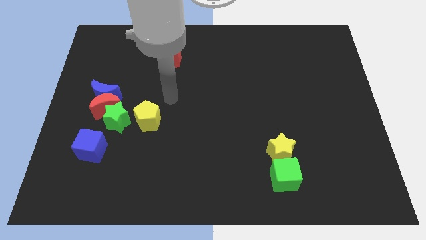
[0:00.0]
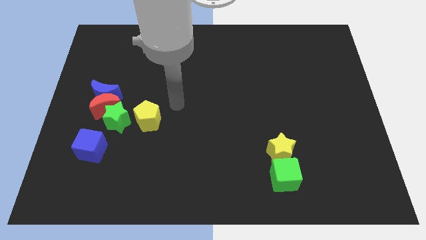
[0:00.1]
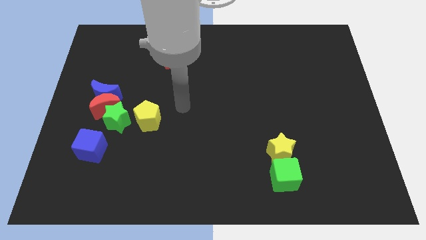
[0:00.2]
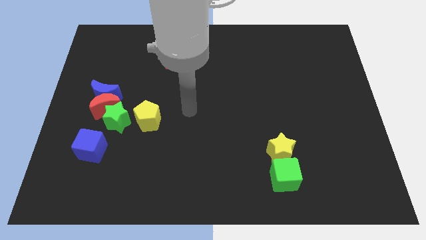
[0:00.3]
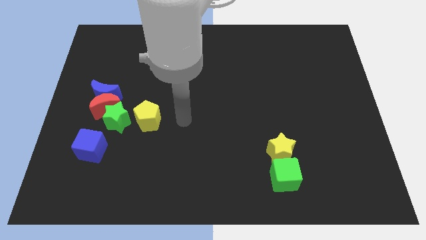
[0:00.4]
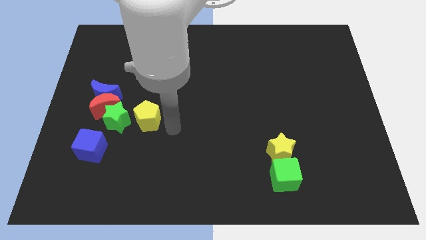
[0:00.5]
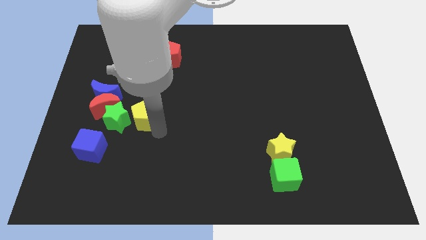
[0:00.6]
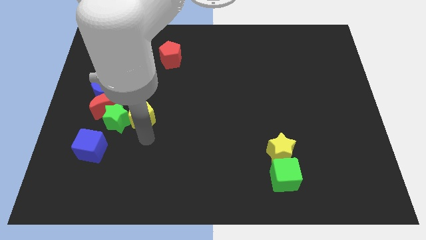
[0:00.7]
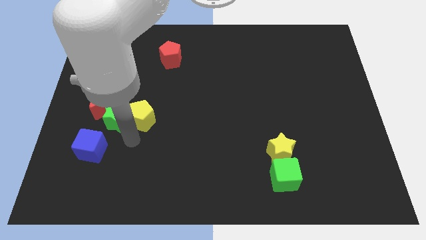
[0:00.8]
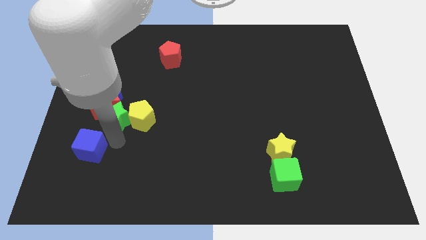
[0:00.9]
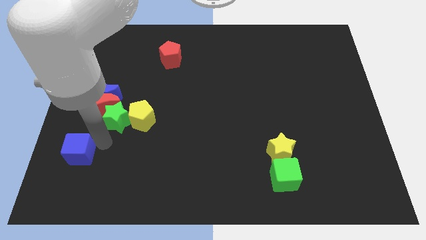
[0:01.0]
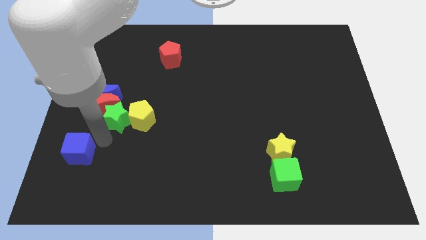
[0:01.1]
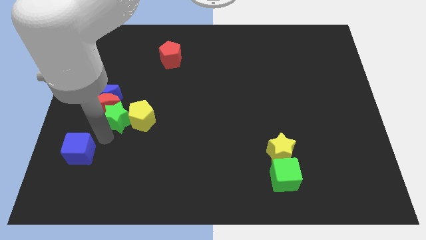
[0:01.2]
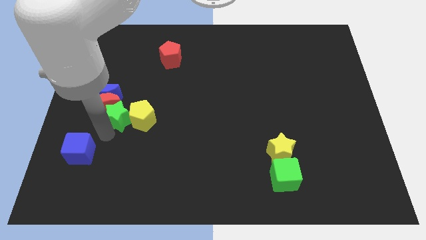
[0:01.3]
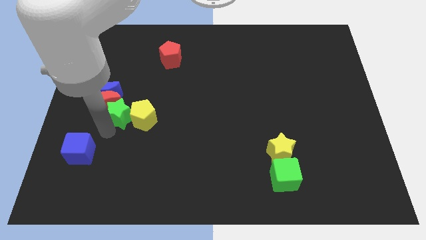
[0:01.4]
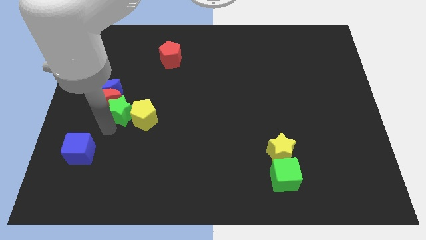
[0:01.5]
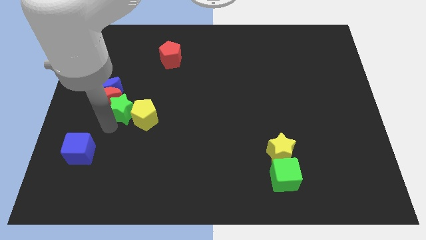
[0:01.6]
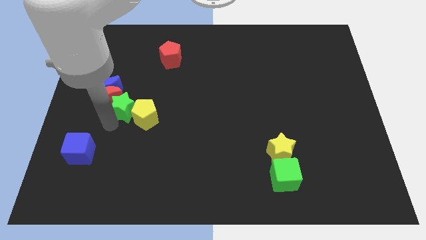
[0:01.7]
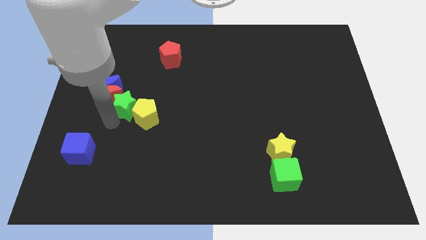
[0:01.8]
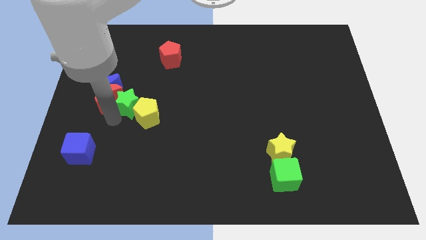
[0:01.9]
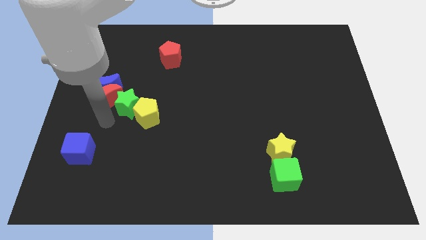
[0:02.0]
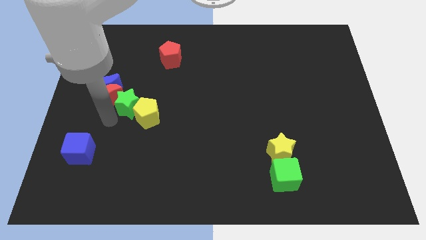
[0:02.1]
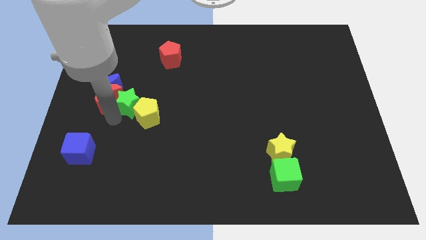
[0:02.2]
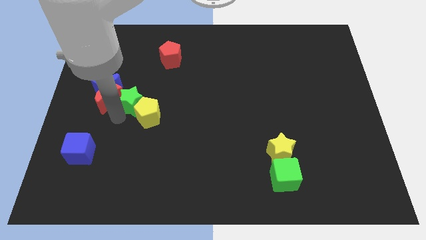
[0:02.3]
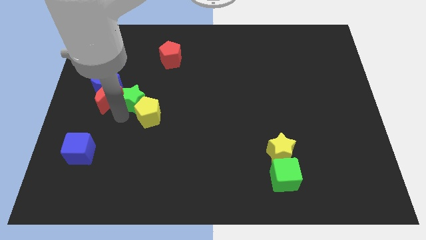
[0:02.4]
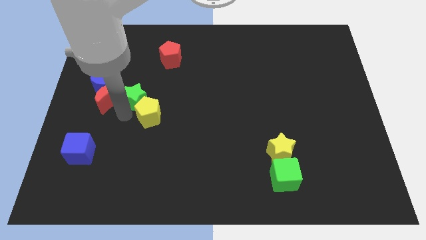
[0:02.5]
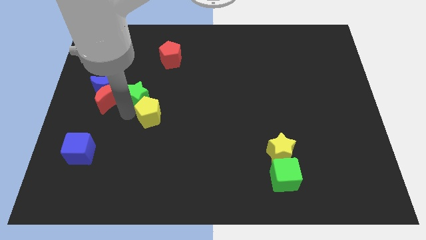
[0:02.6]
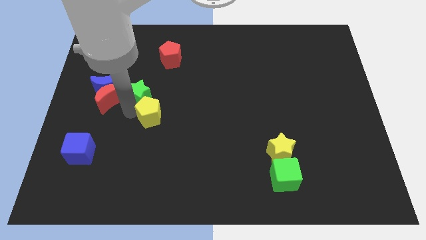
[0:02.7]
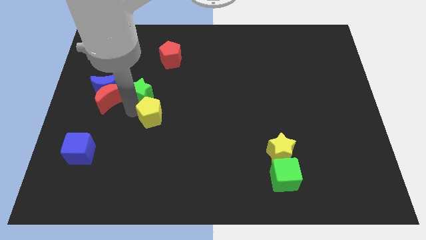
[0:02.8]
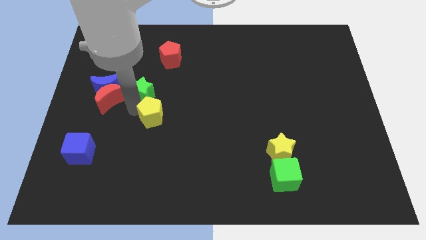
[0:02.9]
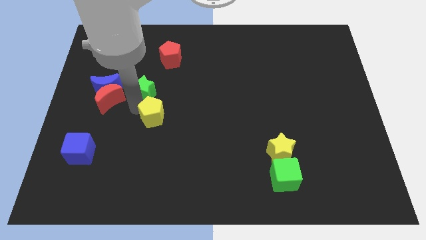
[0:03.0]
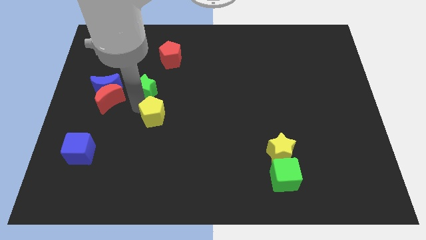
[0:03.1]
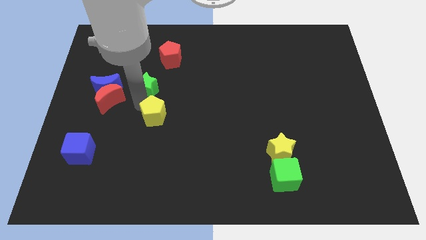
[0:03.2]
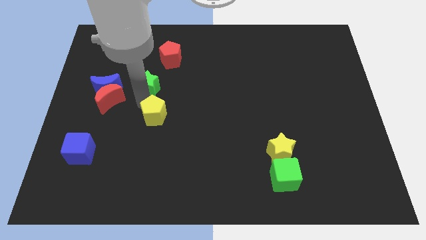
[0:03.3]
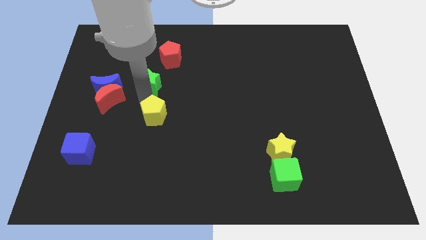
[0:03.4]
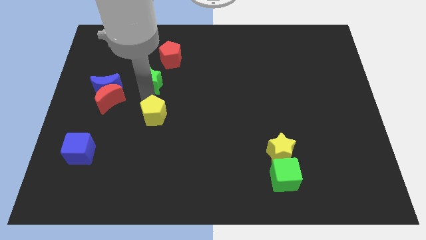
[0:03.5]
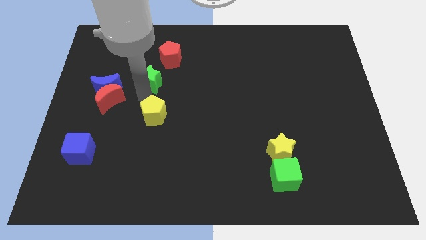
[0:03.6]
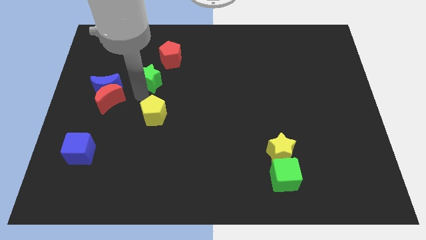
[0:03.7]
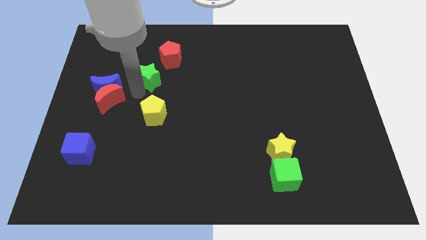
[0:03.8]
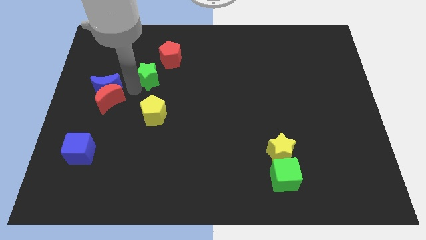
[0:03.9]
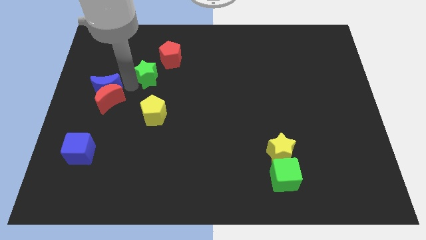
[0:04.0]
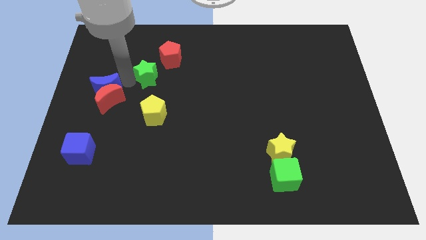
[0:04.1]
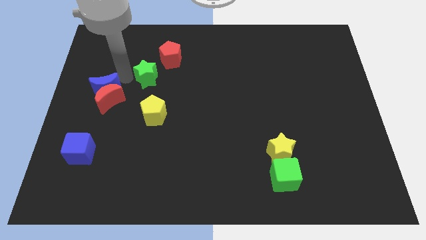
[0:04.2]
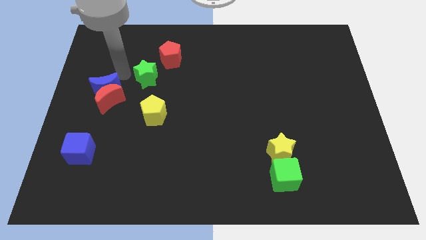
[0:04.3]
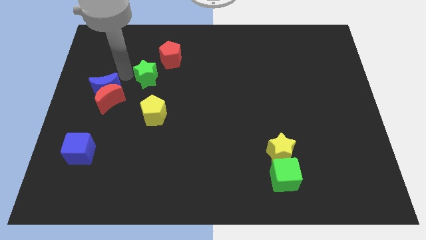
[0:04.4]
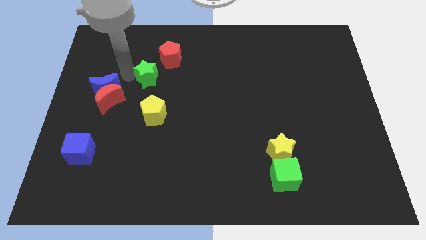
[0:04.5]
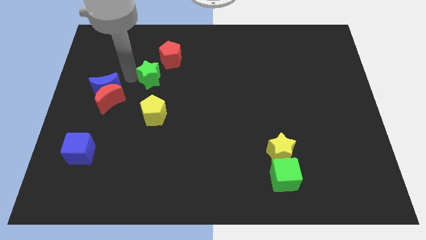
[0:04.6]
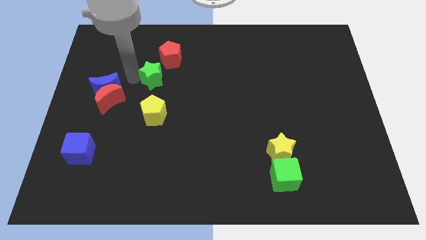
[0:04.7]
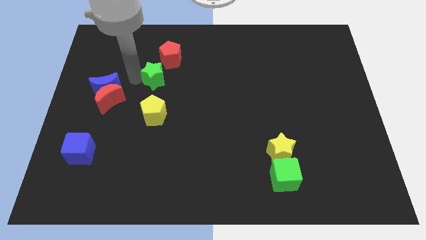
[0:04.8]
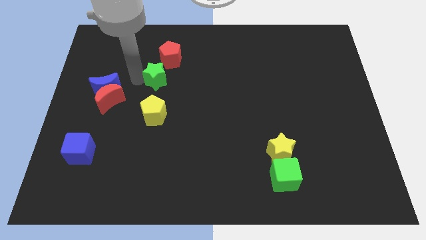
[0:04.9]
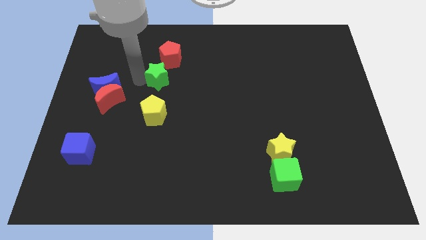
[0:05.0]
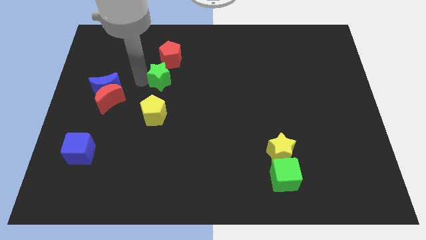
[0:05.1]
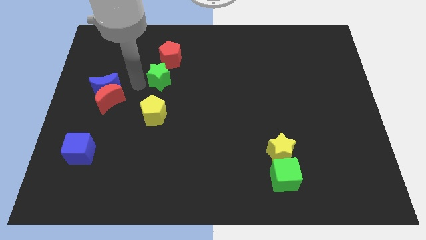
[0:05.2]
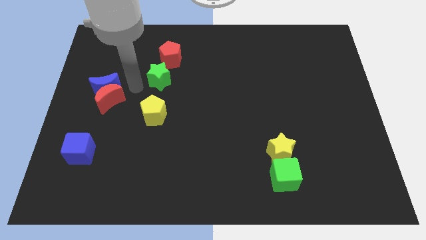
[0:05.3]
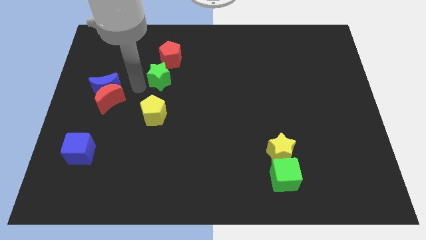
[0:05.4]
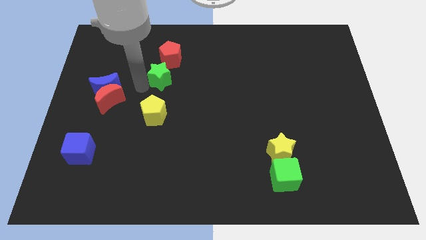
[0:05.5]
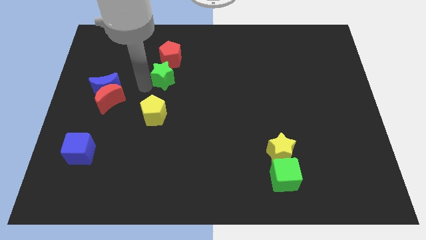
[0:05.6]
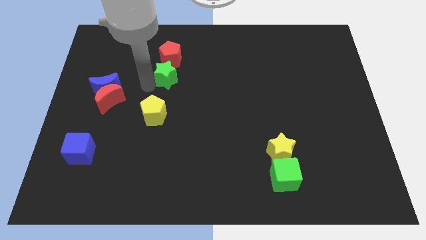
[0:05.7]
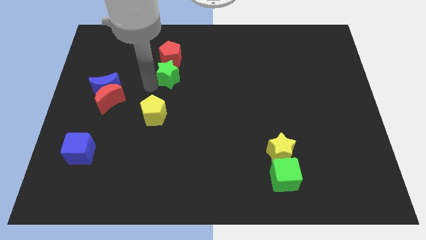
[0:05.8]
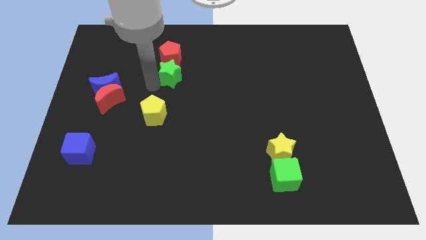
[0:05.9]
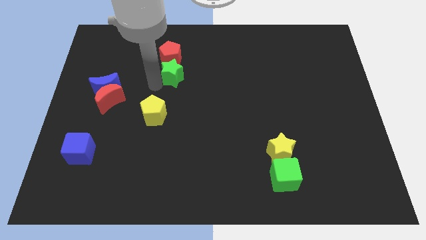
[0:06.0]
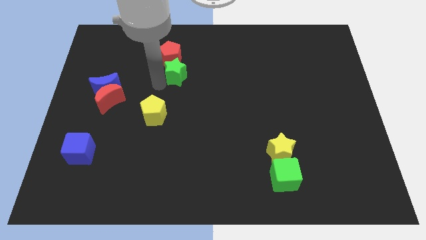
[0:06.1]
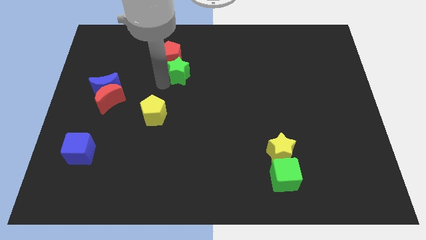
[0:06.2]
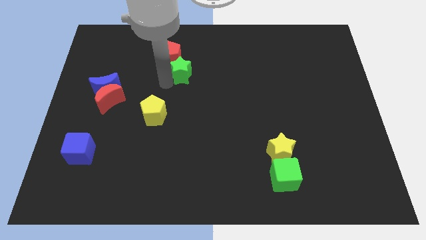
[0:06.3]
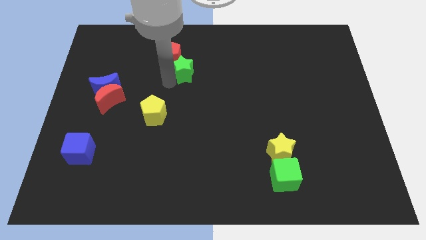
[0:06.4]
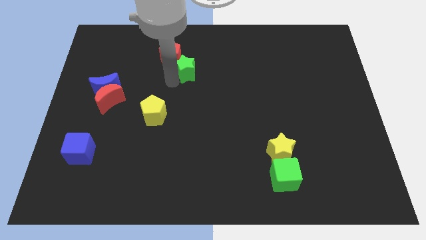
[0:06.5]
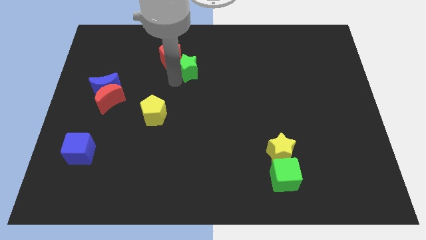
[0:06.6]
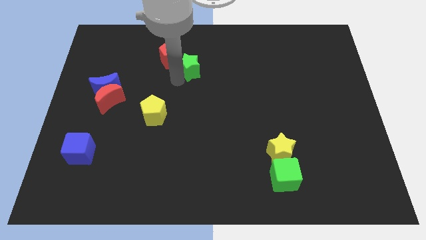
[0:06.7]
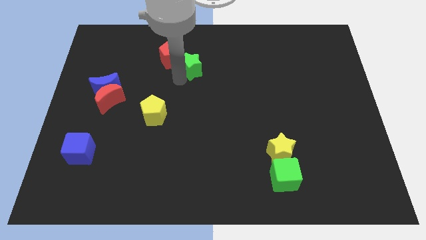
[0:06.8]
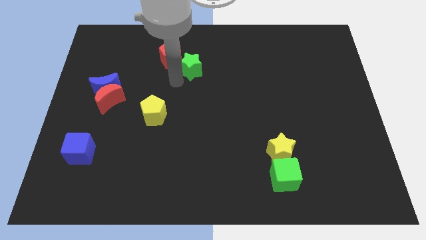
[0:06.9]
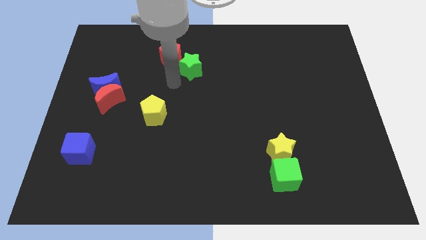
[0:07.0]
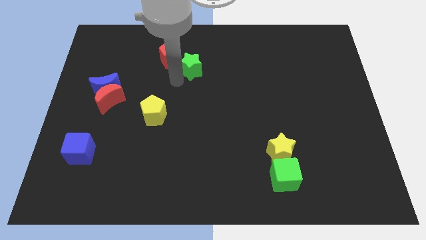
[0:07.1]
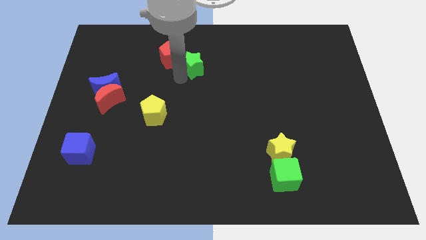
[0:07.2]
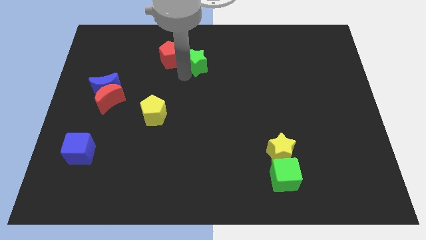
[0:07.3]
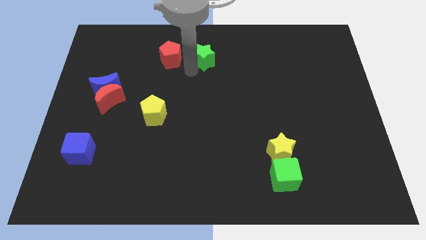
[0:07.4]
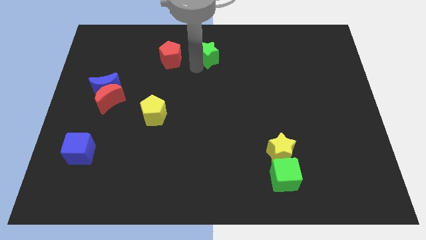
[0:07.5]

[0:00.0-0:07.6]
push the green star to the top
